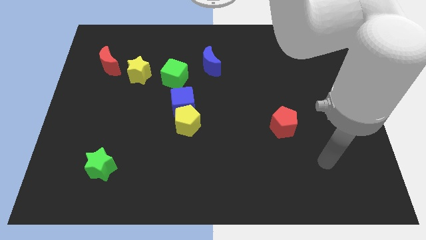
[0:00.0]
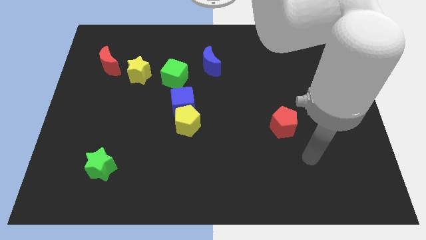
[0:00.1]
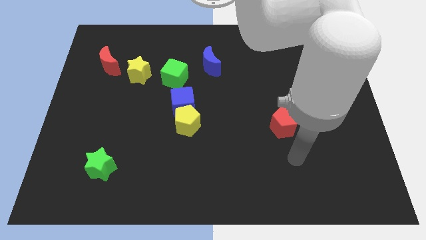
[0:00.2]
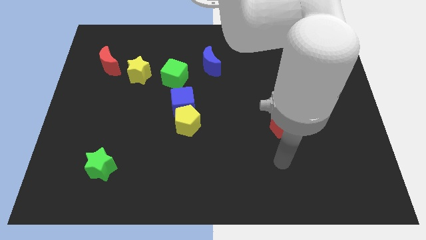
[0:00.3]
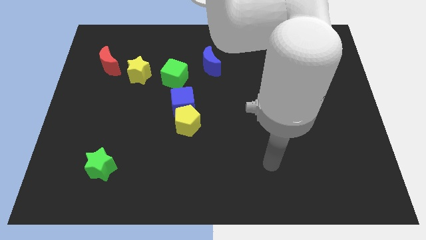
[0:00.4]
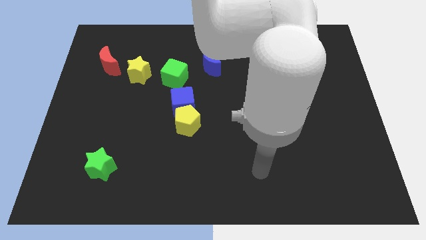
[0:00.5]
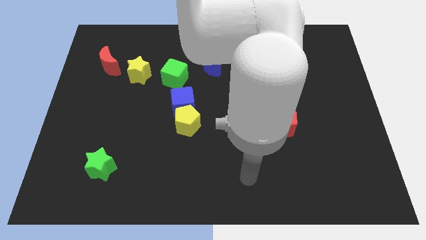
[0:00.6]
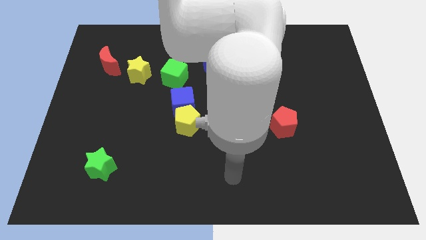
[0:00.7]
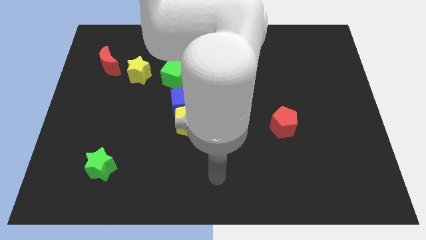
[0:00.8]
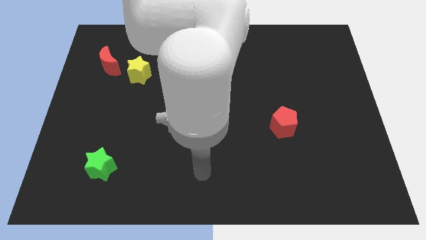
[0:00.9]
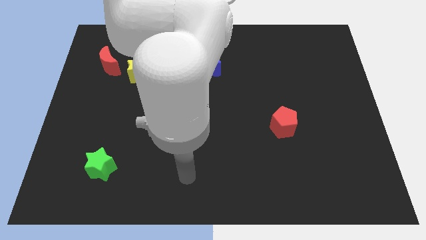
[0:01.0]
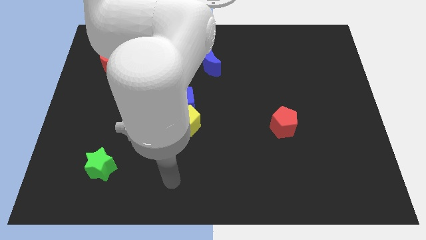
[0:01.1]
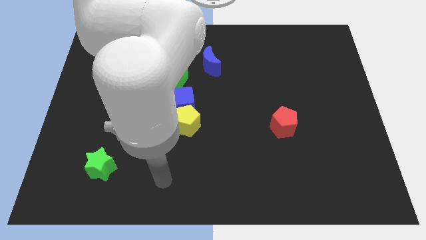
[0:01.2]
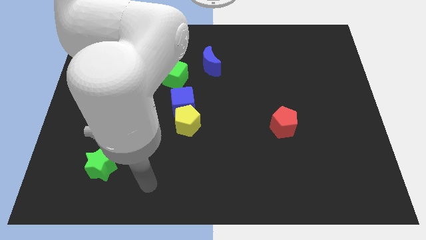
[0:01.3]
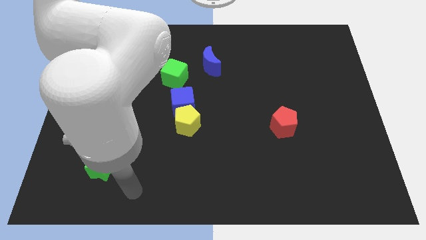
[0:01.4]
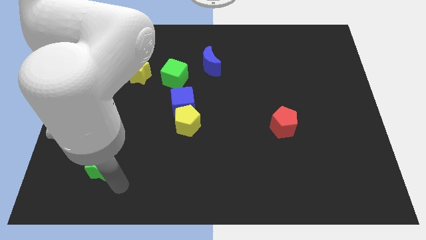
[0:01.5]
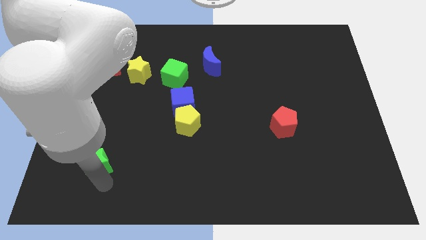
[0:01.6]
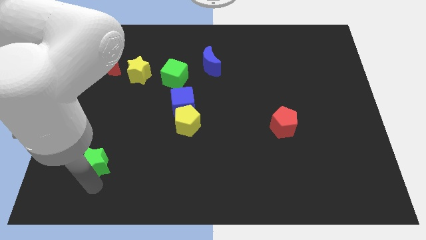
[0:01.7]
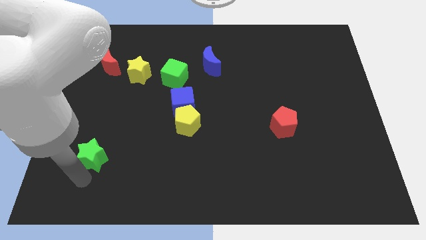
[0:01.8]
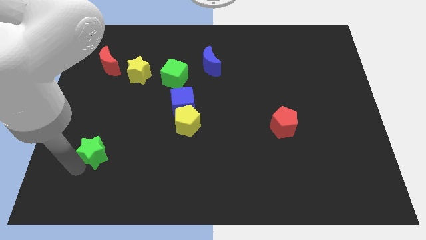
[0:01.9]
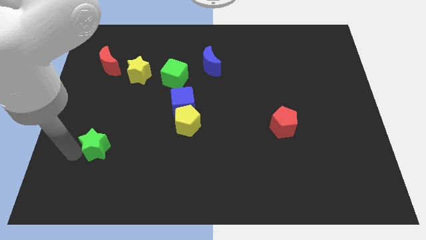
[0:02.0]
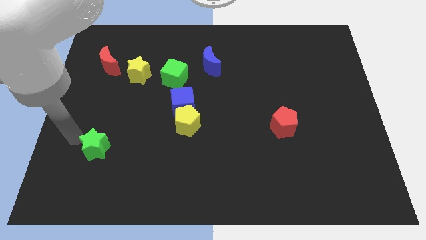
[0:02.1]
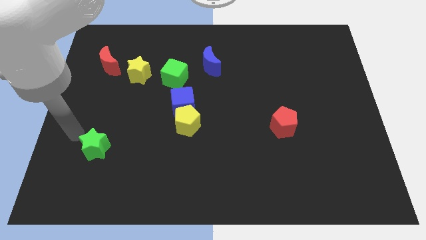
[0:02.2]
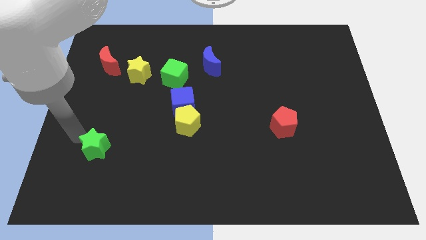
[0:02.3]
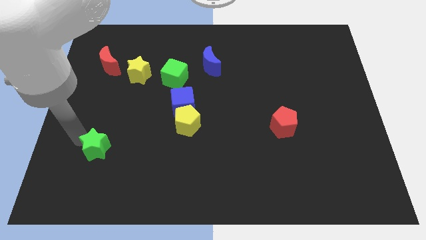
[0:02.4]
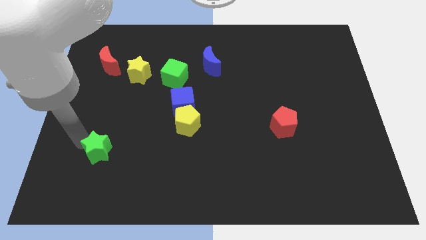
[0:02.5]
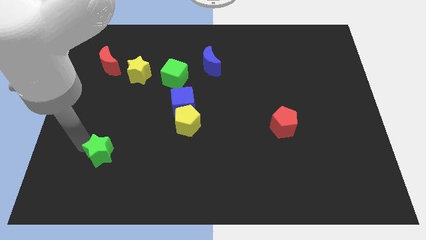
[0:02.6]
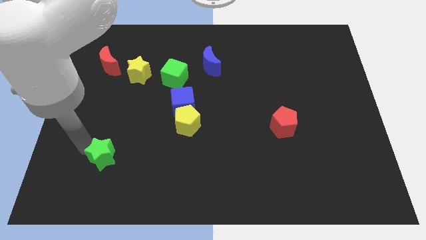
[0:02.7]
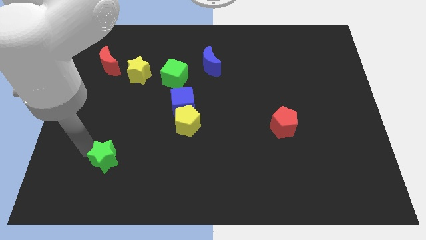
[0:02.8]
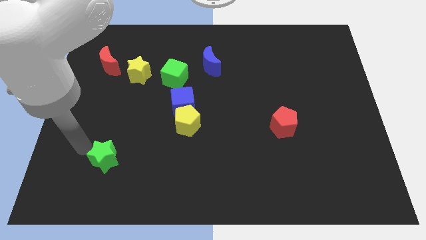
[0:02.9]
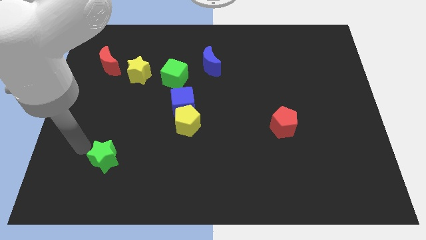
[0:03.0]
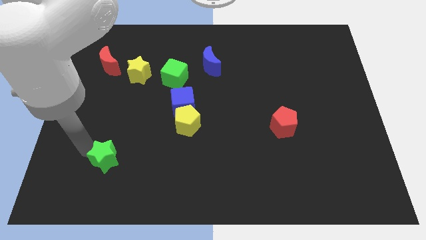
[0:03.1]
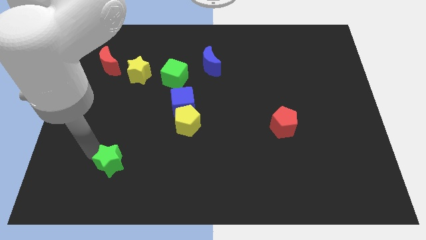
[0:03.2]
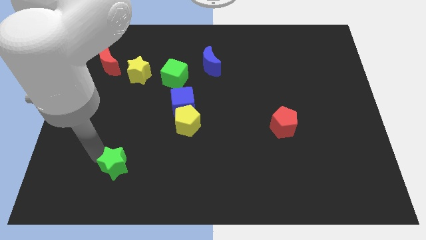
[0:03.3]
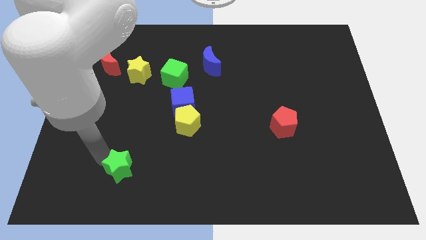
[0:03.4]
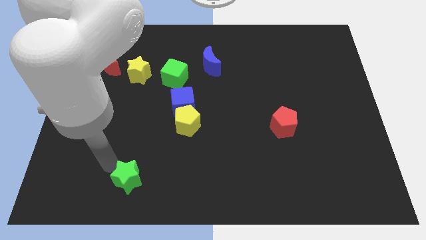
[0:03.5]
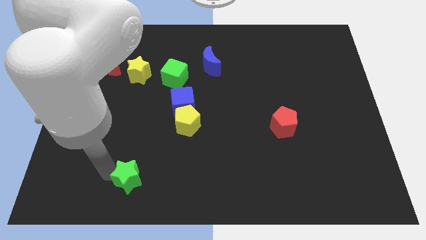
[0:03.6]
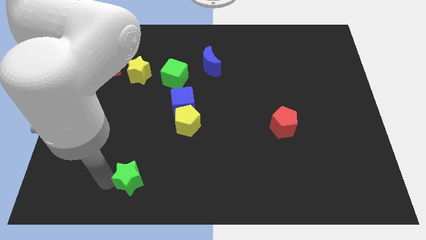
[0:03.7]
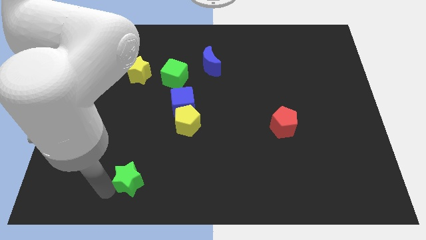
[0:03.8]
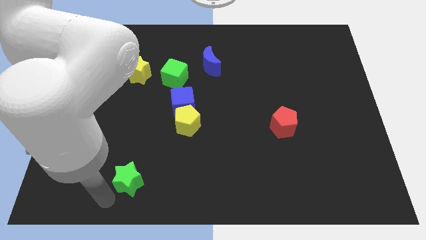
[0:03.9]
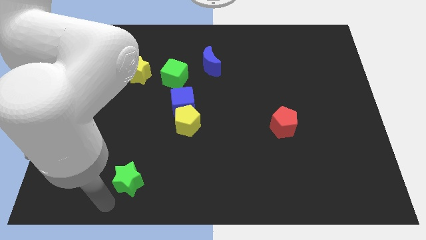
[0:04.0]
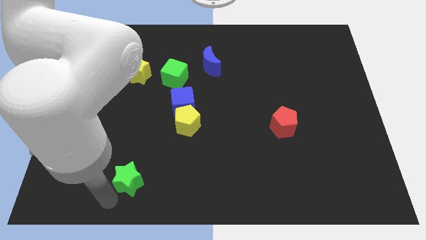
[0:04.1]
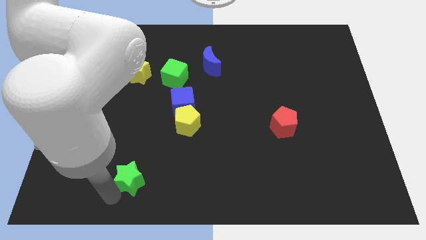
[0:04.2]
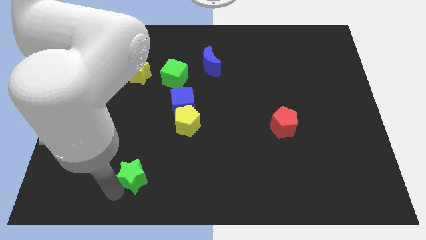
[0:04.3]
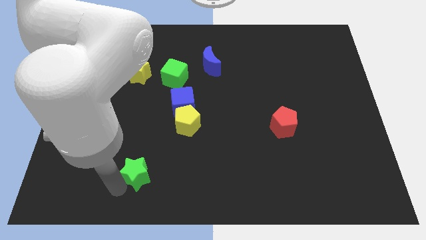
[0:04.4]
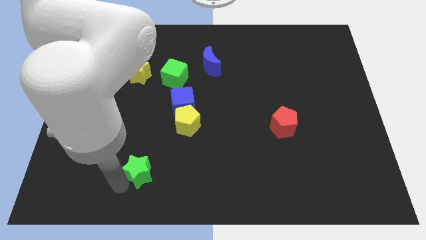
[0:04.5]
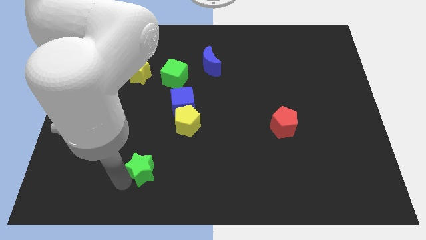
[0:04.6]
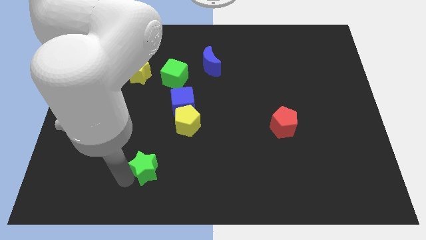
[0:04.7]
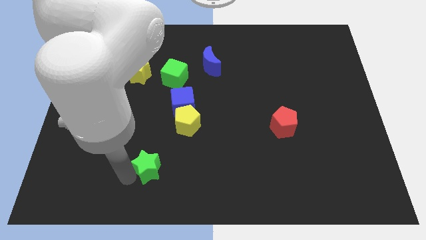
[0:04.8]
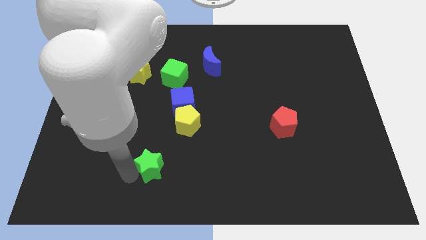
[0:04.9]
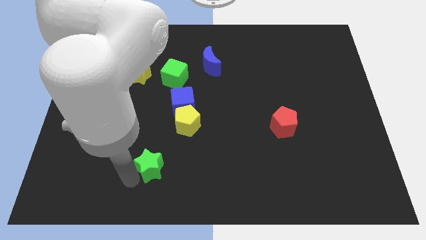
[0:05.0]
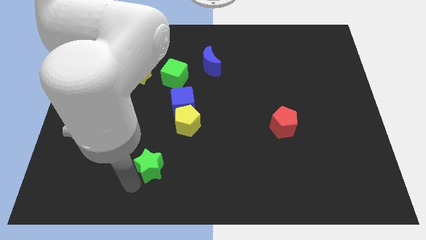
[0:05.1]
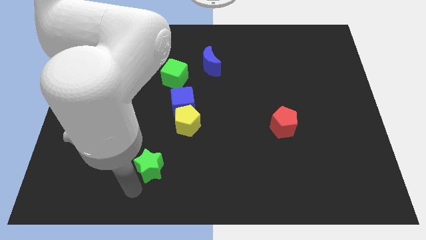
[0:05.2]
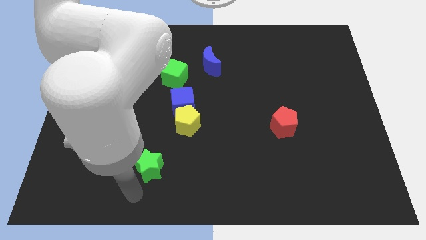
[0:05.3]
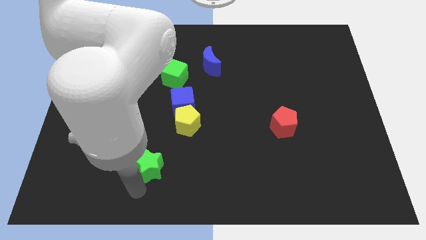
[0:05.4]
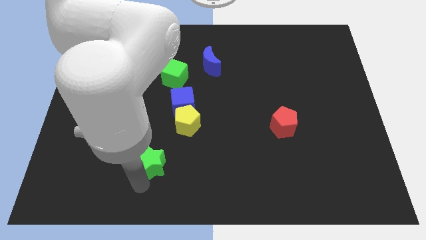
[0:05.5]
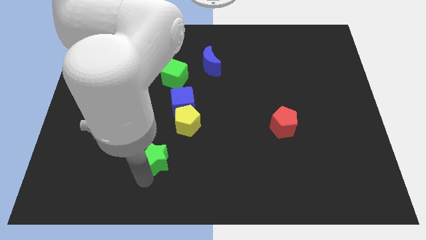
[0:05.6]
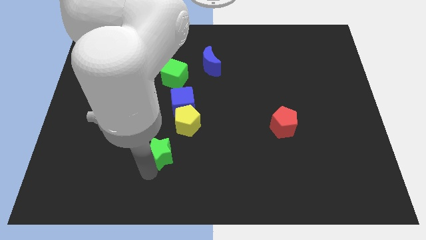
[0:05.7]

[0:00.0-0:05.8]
move the green star to the bottom side of the blue cube

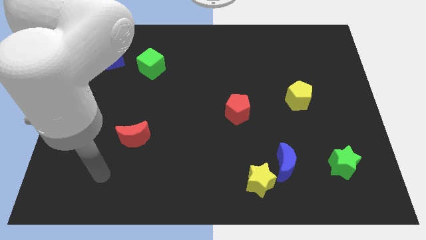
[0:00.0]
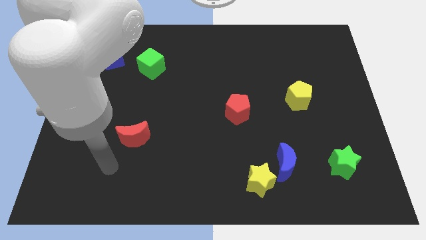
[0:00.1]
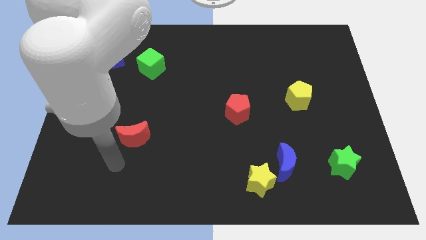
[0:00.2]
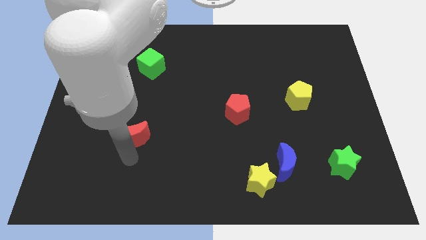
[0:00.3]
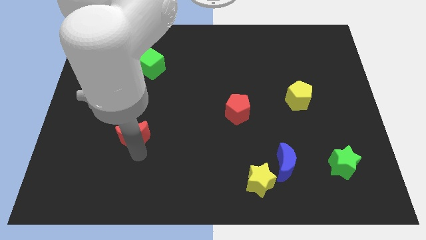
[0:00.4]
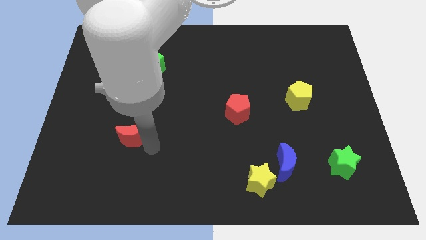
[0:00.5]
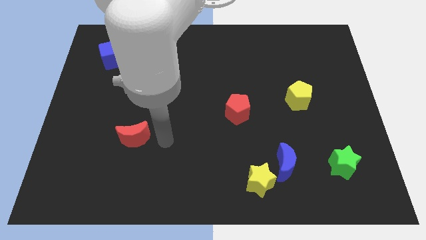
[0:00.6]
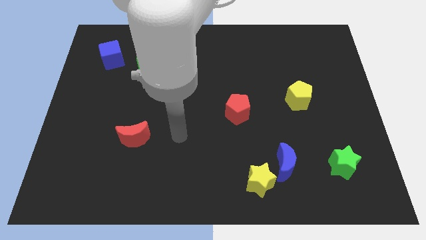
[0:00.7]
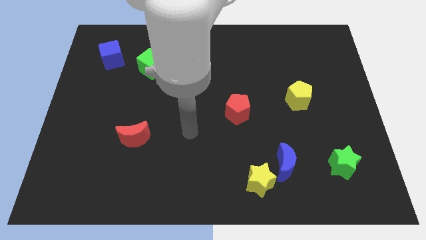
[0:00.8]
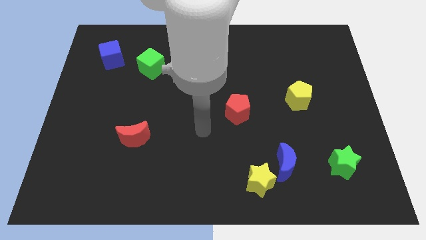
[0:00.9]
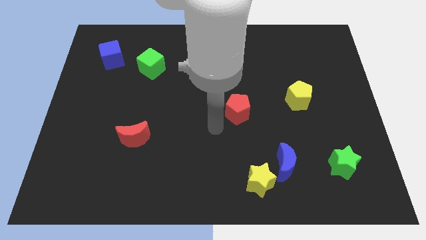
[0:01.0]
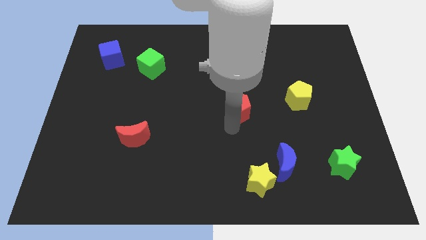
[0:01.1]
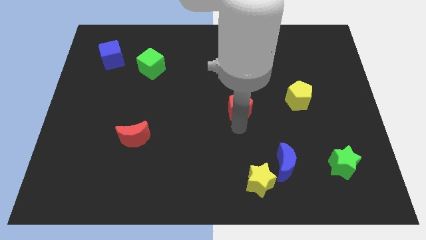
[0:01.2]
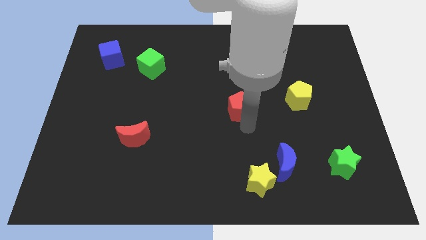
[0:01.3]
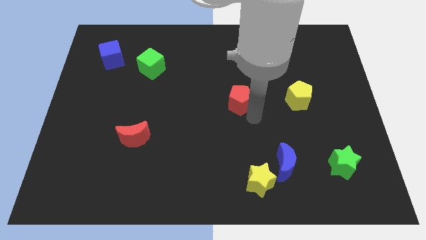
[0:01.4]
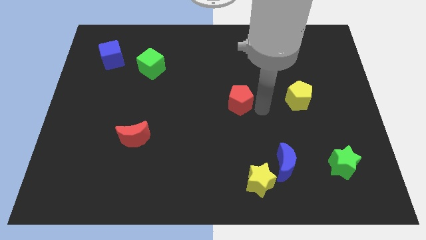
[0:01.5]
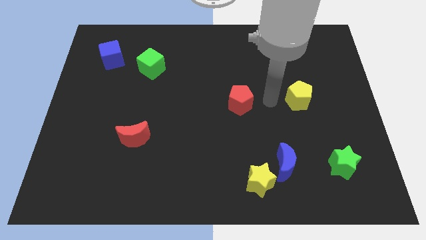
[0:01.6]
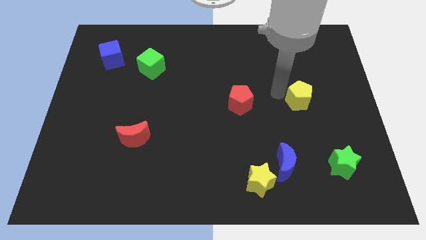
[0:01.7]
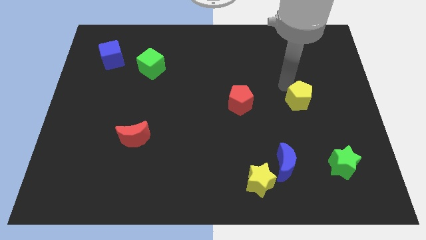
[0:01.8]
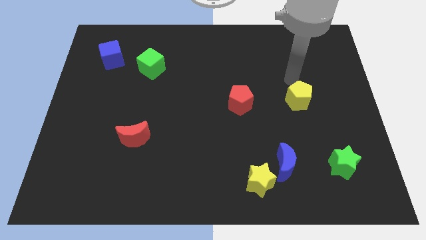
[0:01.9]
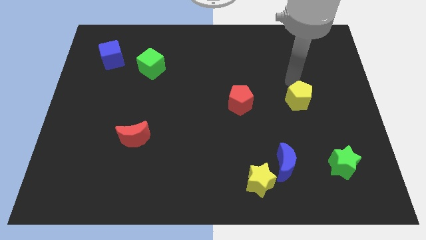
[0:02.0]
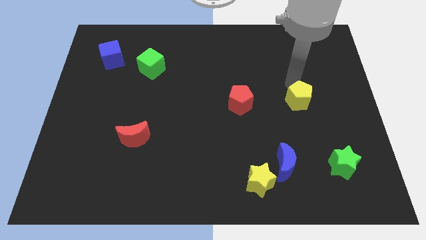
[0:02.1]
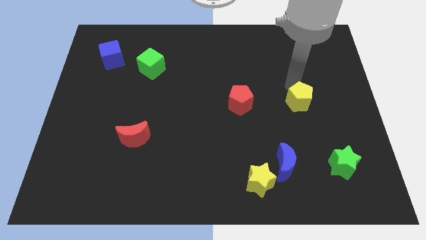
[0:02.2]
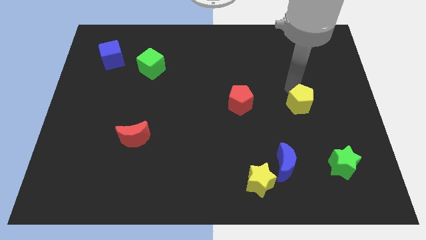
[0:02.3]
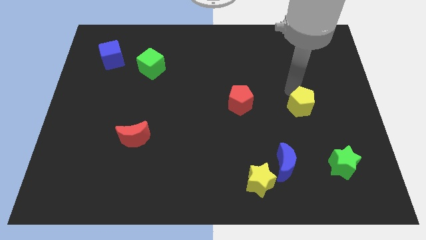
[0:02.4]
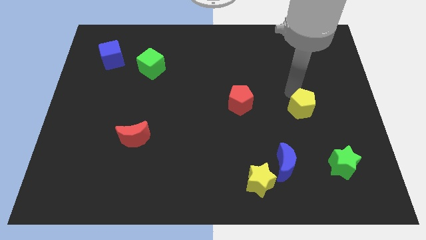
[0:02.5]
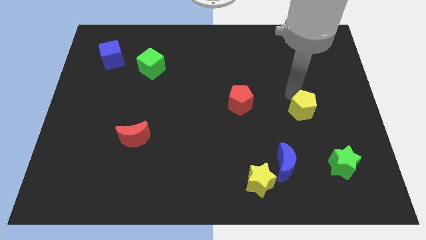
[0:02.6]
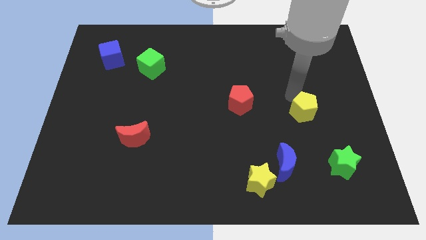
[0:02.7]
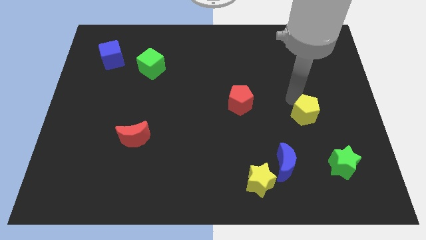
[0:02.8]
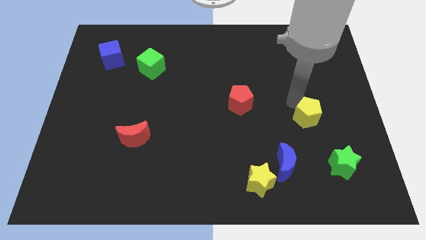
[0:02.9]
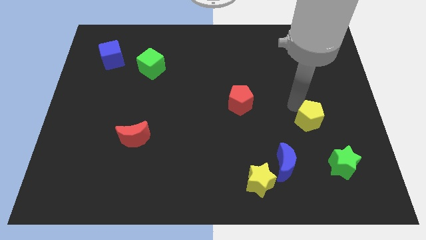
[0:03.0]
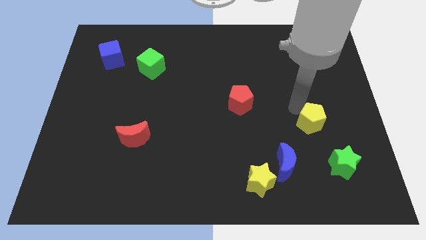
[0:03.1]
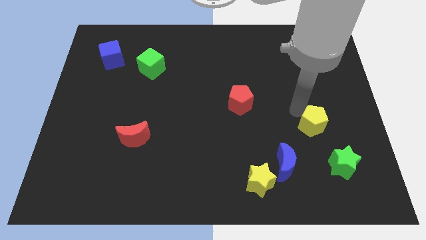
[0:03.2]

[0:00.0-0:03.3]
slide the yellow pentagon to the top left of the green star
